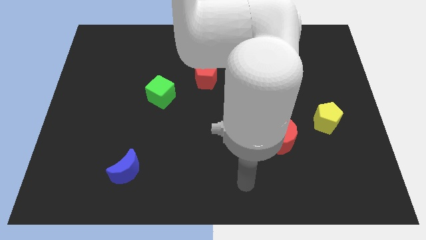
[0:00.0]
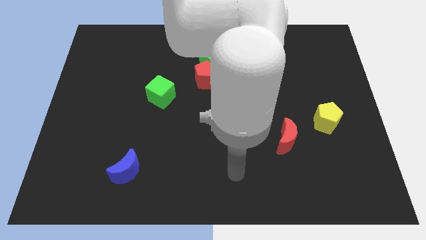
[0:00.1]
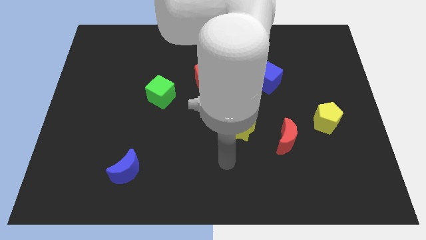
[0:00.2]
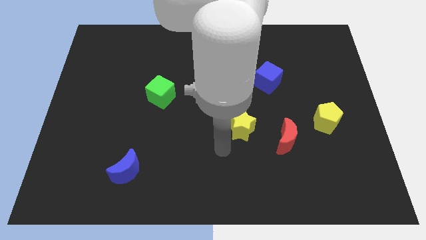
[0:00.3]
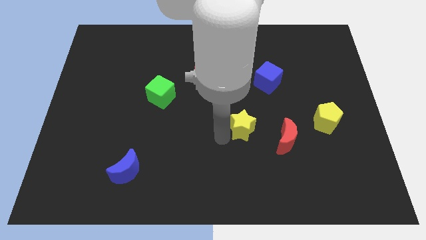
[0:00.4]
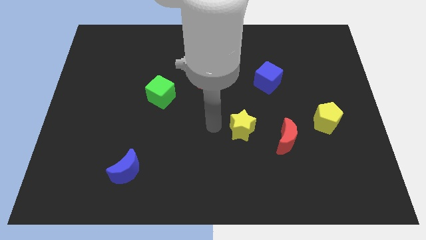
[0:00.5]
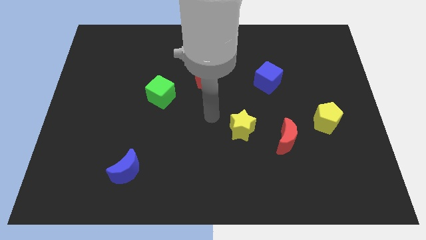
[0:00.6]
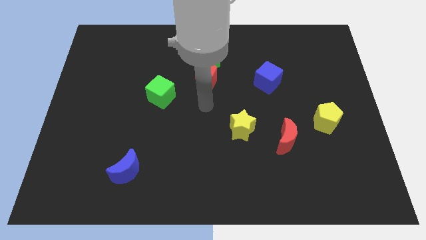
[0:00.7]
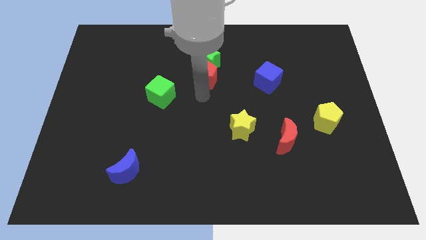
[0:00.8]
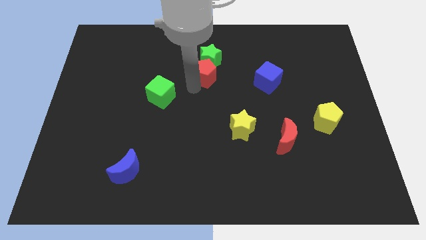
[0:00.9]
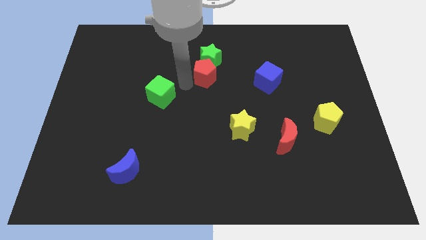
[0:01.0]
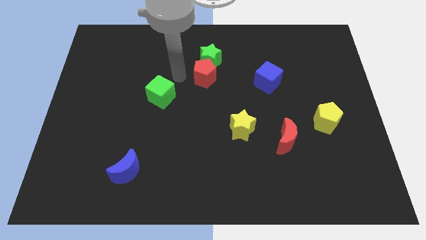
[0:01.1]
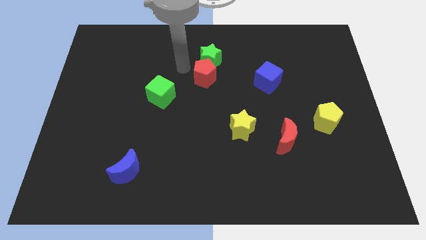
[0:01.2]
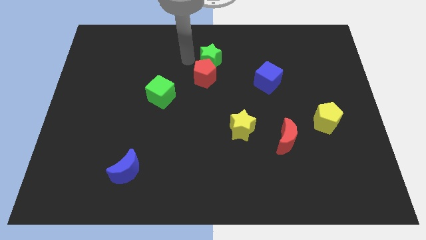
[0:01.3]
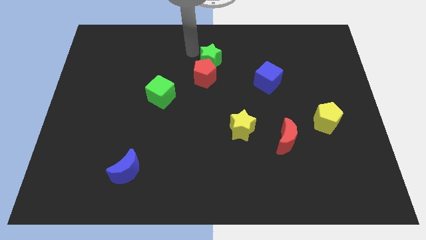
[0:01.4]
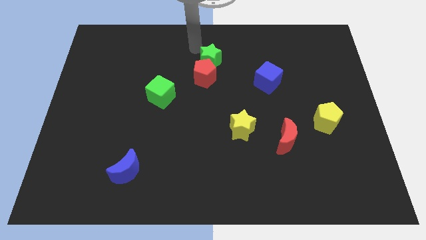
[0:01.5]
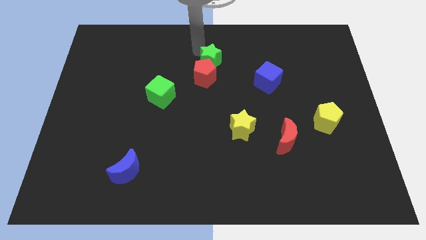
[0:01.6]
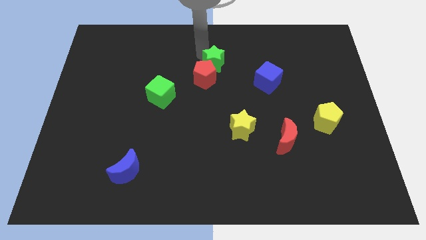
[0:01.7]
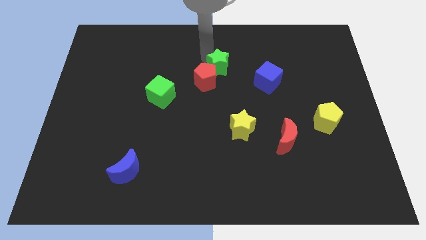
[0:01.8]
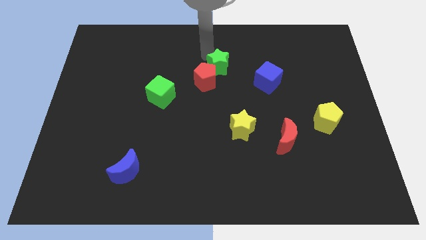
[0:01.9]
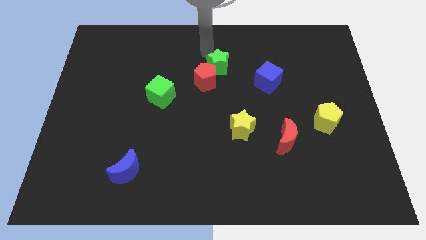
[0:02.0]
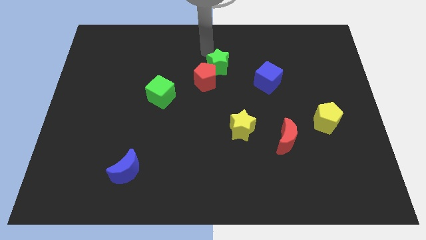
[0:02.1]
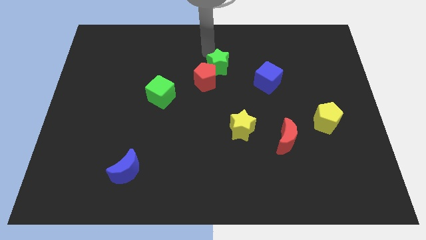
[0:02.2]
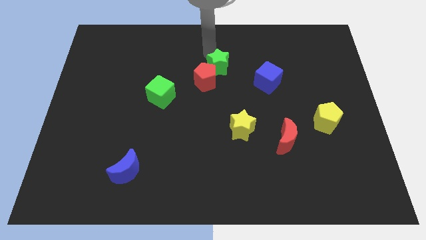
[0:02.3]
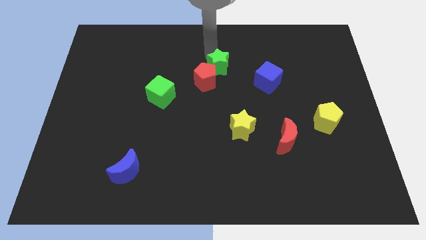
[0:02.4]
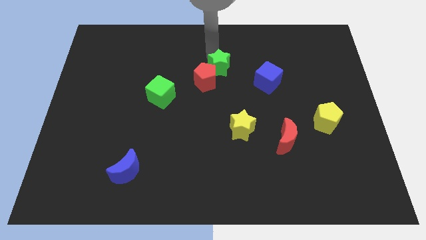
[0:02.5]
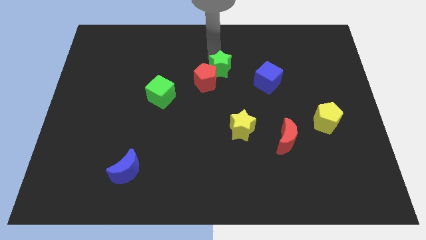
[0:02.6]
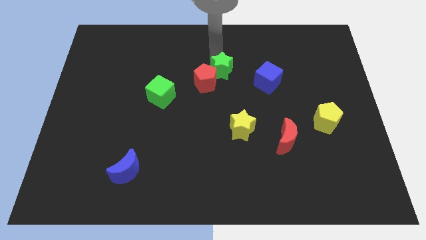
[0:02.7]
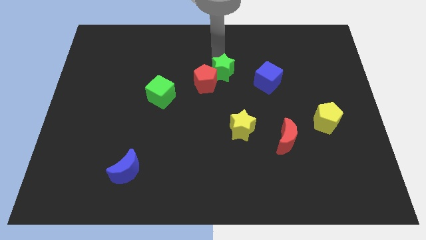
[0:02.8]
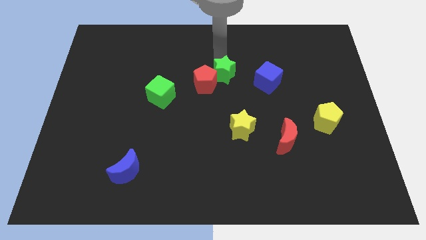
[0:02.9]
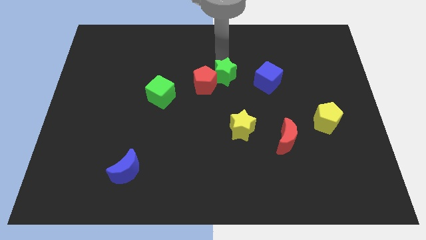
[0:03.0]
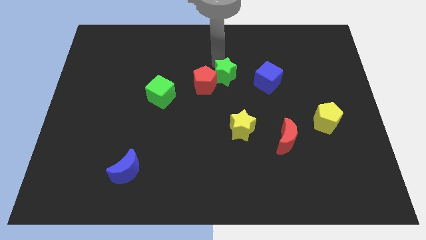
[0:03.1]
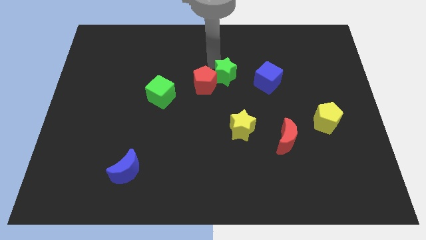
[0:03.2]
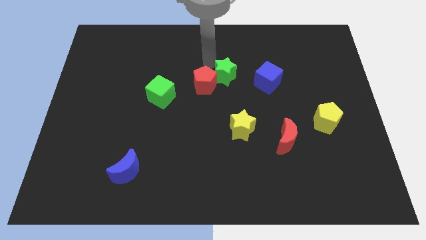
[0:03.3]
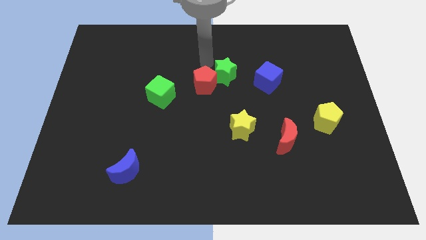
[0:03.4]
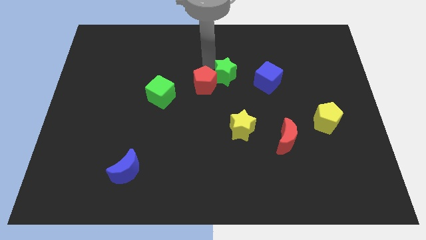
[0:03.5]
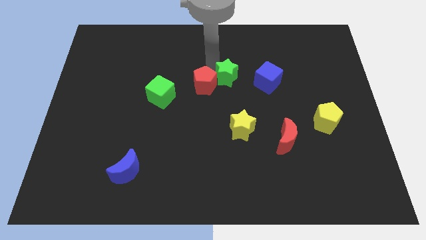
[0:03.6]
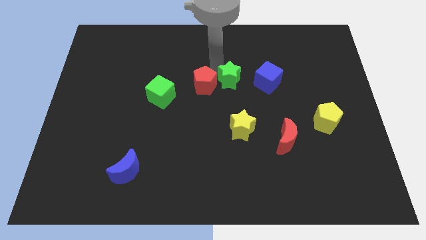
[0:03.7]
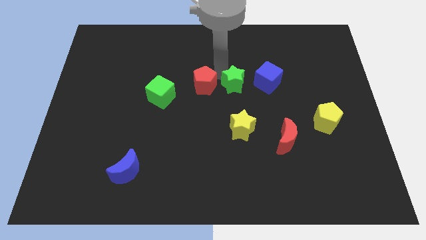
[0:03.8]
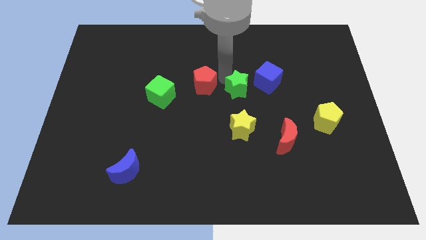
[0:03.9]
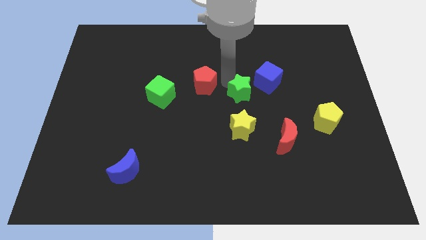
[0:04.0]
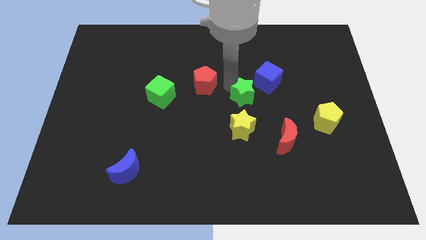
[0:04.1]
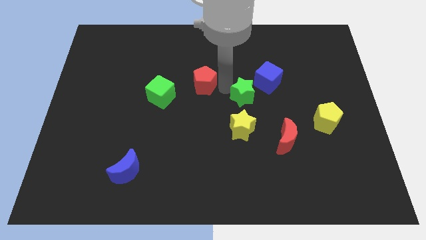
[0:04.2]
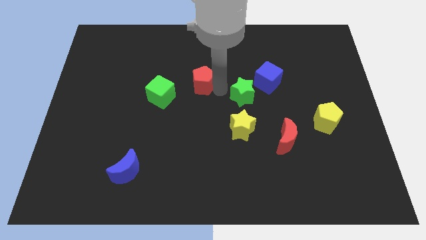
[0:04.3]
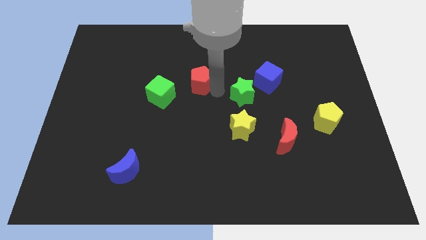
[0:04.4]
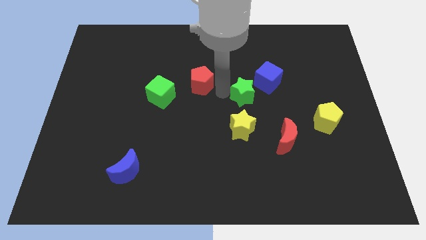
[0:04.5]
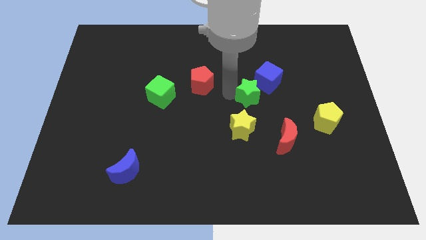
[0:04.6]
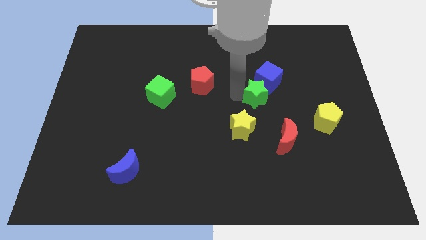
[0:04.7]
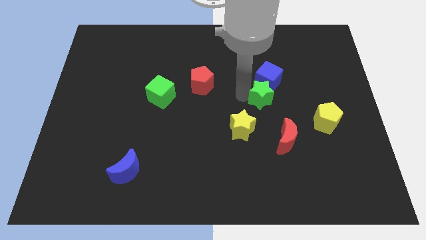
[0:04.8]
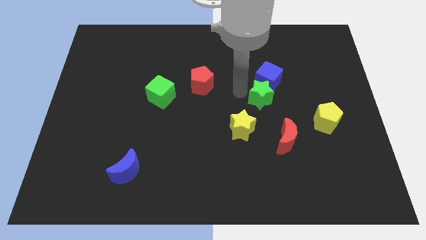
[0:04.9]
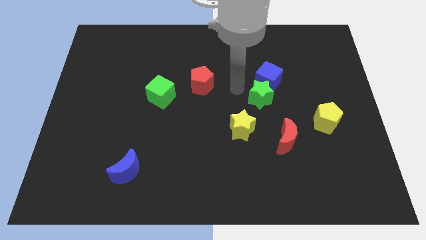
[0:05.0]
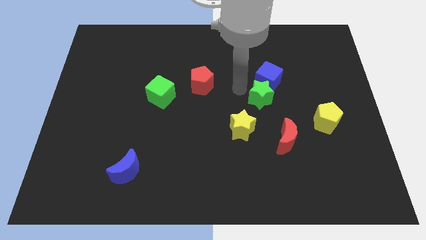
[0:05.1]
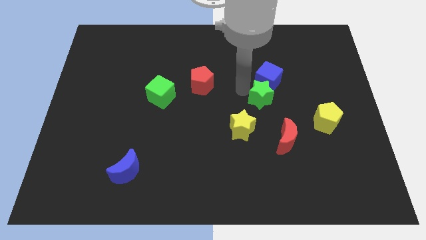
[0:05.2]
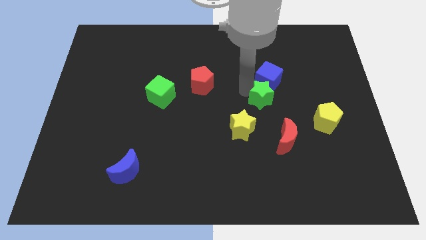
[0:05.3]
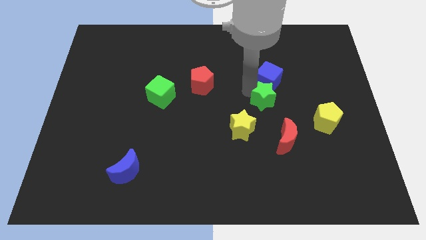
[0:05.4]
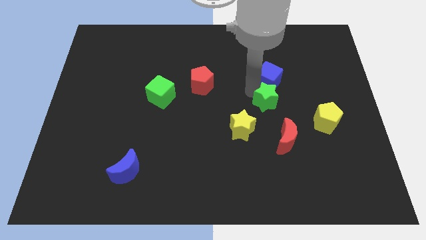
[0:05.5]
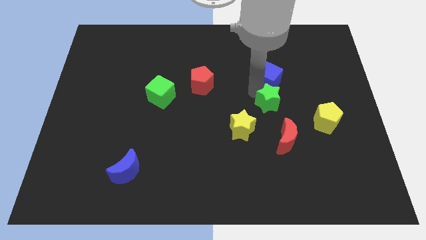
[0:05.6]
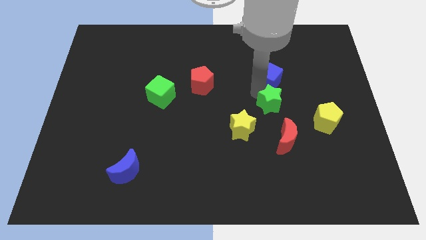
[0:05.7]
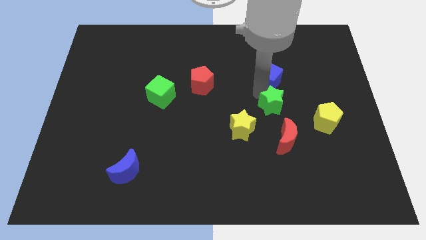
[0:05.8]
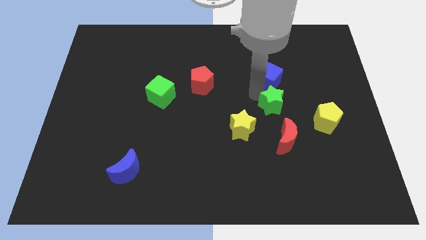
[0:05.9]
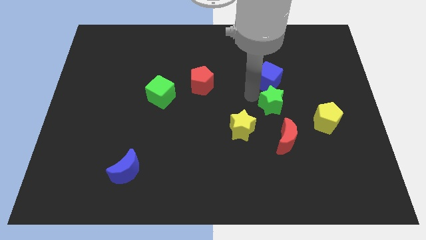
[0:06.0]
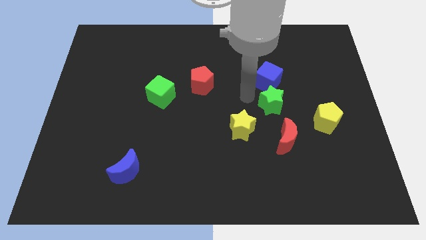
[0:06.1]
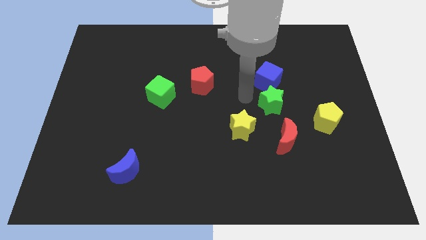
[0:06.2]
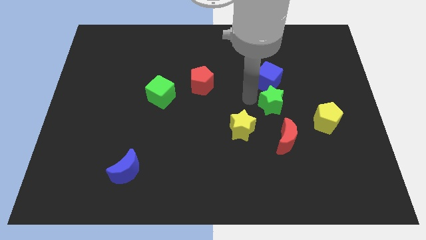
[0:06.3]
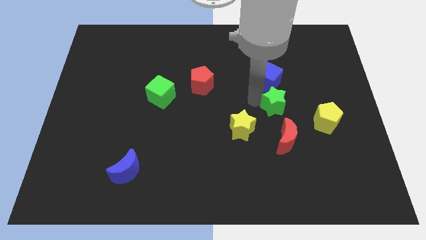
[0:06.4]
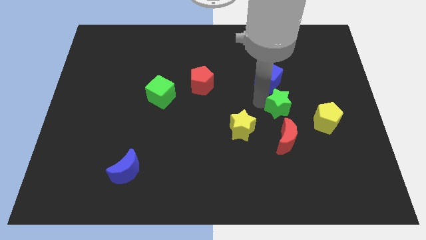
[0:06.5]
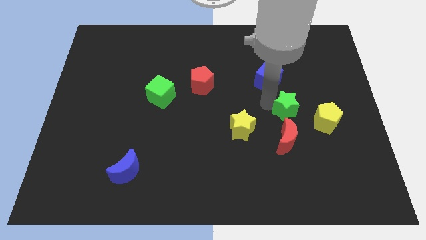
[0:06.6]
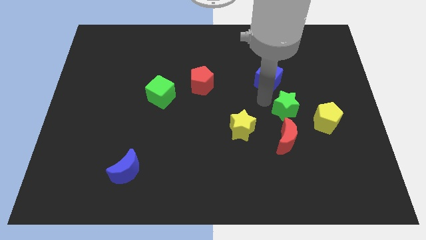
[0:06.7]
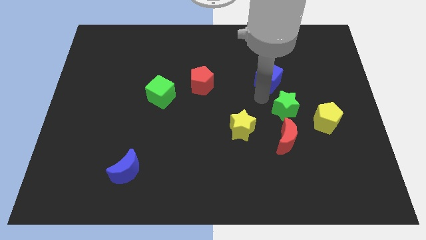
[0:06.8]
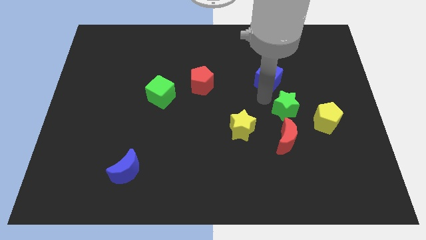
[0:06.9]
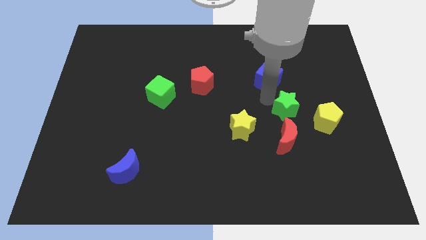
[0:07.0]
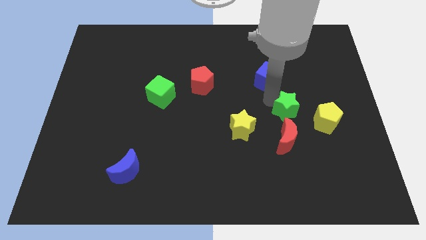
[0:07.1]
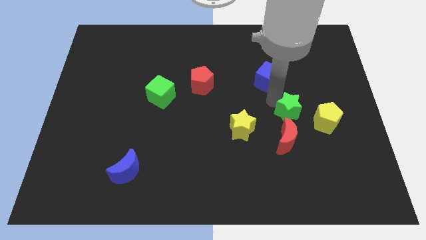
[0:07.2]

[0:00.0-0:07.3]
slide the green star to the top right side of the red moon

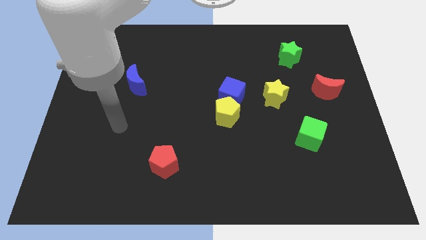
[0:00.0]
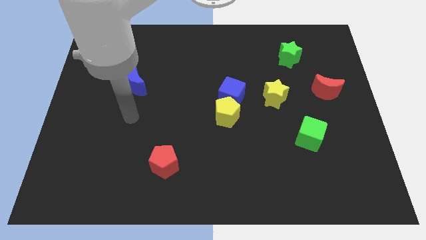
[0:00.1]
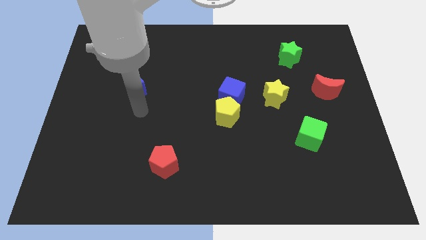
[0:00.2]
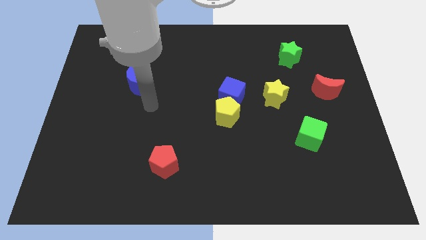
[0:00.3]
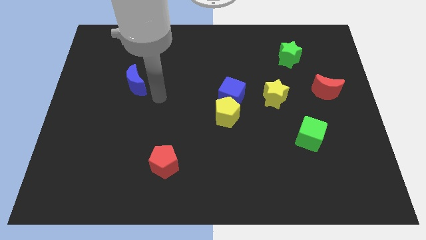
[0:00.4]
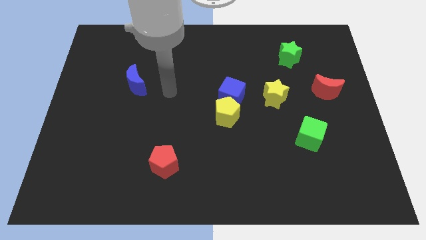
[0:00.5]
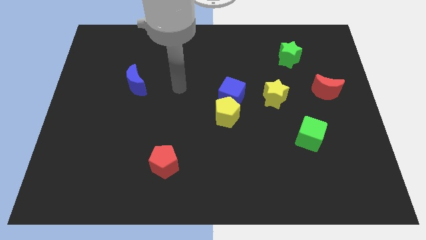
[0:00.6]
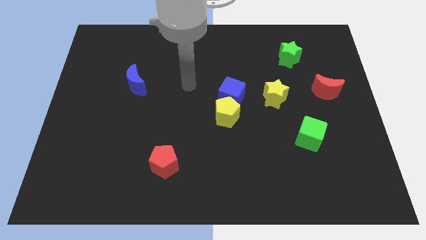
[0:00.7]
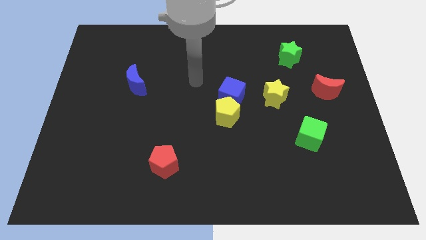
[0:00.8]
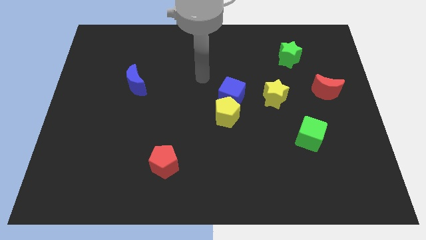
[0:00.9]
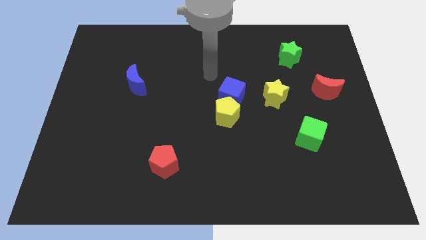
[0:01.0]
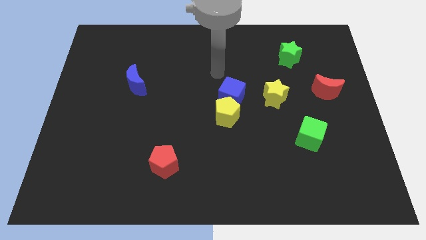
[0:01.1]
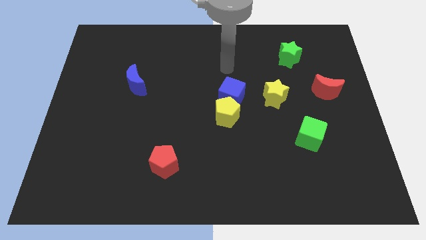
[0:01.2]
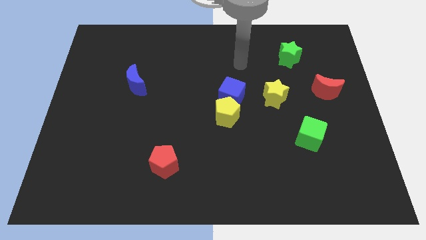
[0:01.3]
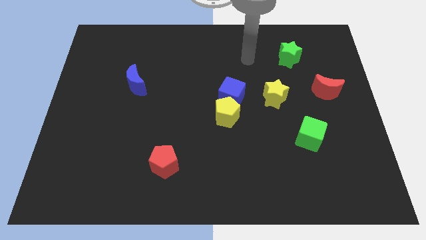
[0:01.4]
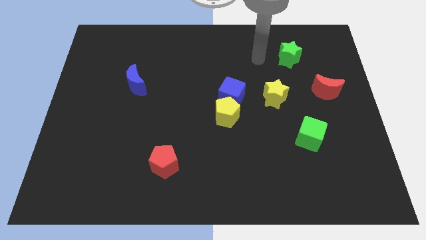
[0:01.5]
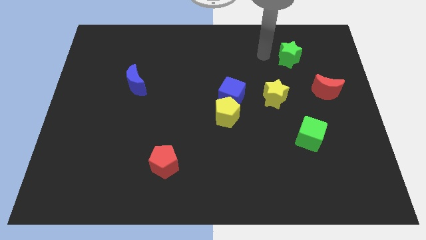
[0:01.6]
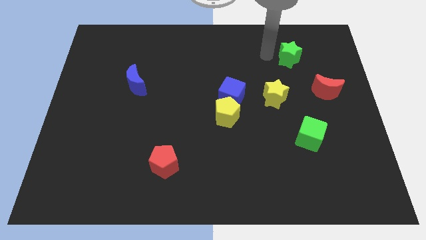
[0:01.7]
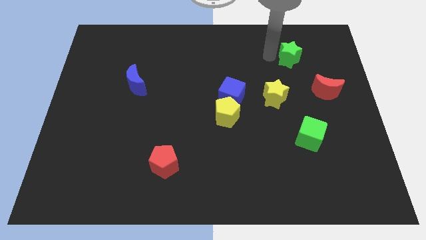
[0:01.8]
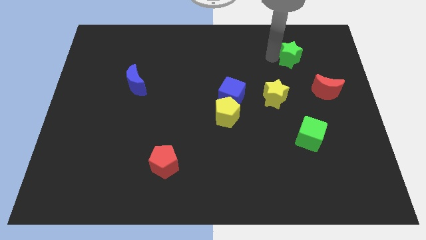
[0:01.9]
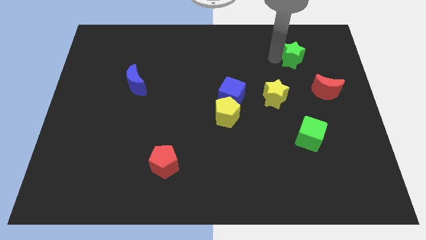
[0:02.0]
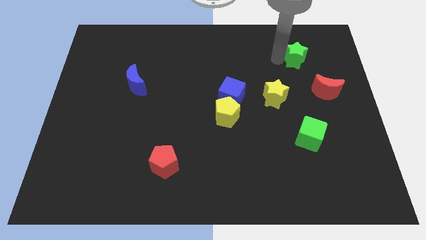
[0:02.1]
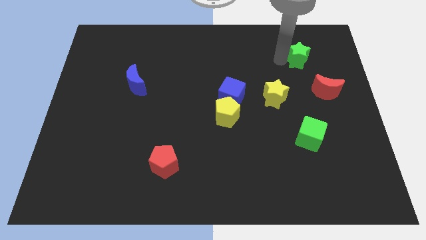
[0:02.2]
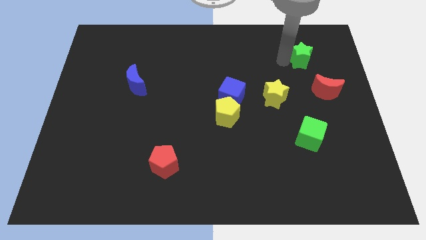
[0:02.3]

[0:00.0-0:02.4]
slide the green star to the top side of the red moon
